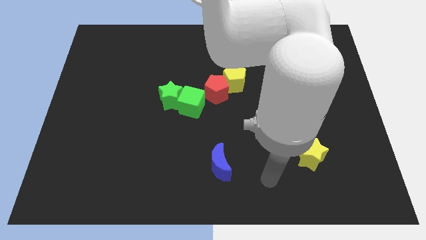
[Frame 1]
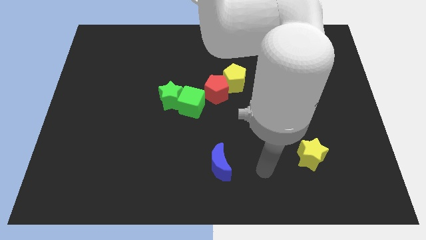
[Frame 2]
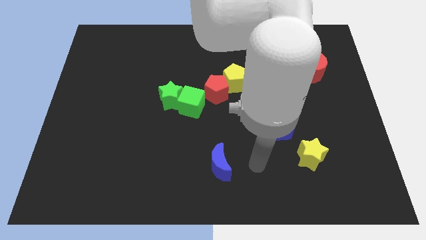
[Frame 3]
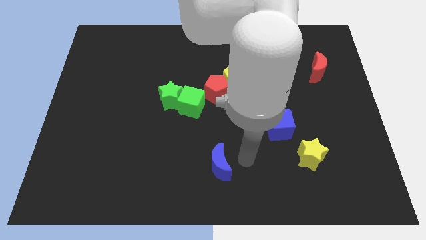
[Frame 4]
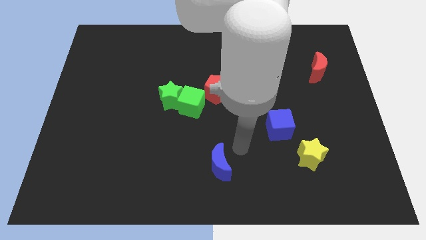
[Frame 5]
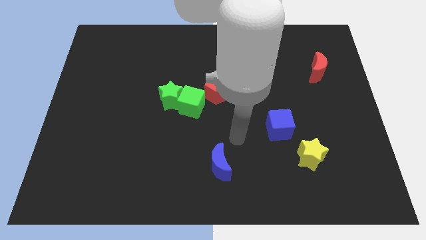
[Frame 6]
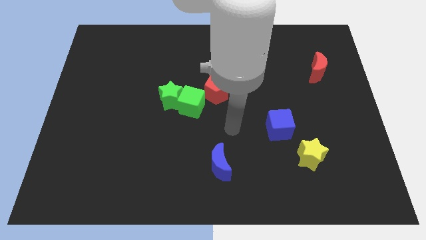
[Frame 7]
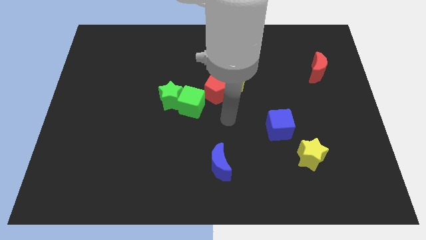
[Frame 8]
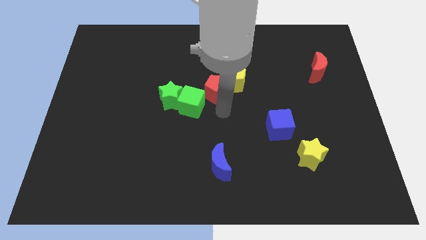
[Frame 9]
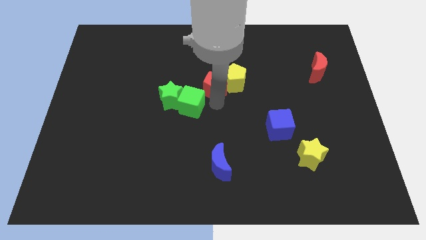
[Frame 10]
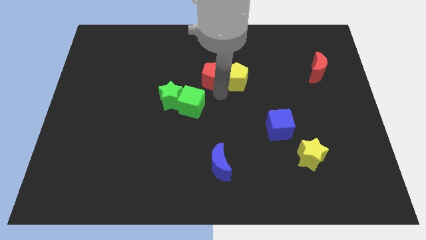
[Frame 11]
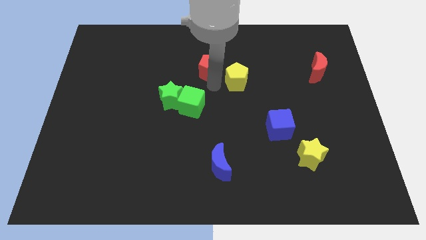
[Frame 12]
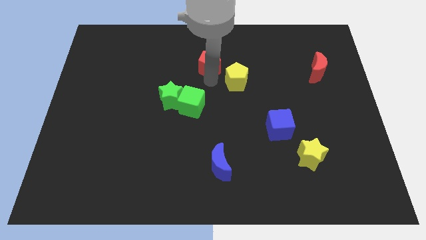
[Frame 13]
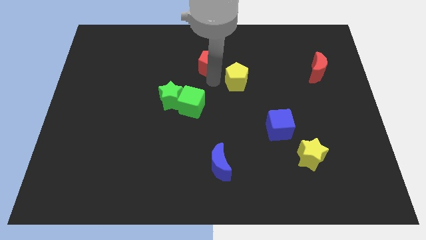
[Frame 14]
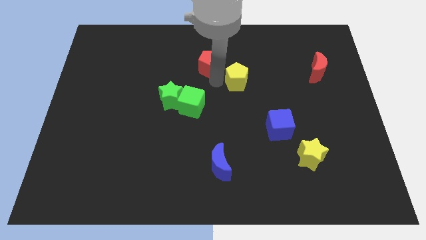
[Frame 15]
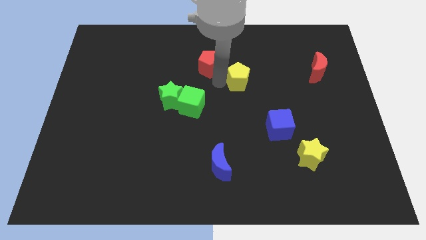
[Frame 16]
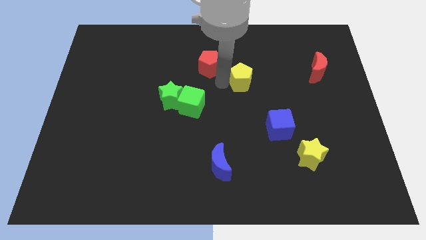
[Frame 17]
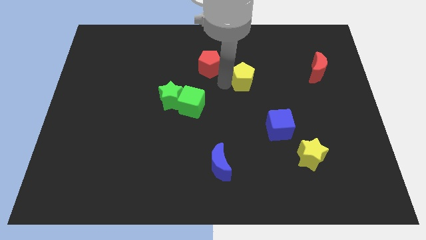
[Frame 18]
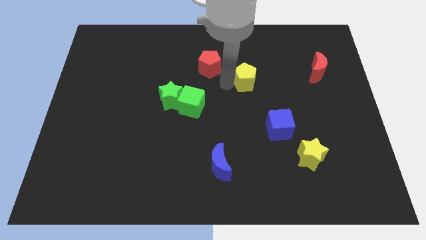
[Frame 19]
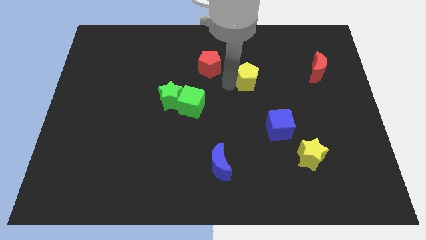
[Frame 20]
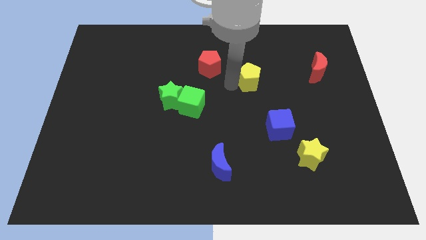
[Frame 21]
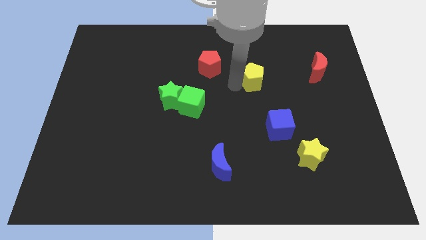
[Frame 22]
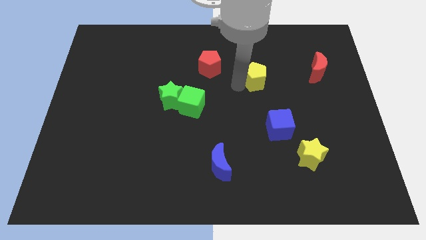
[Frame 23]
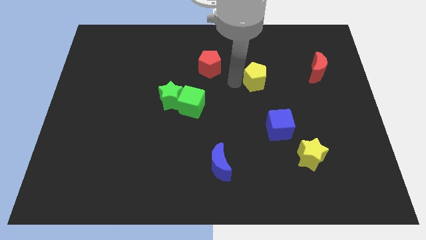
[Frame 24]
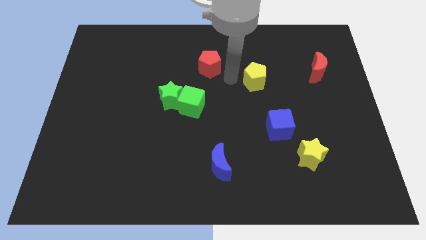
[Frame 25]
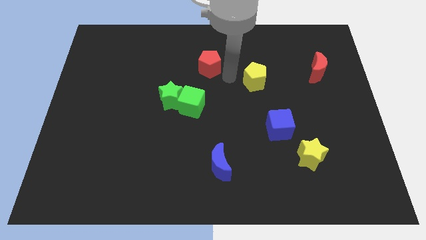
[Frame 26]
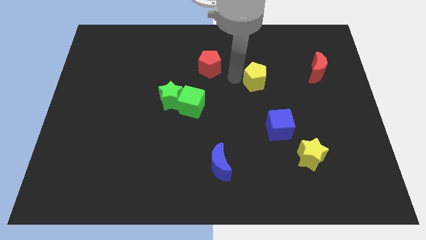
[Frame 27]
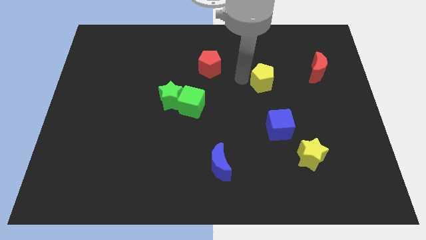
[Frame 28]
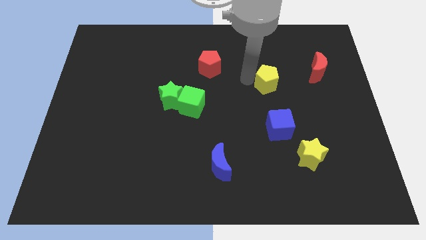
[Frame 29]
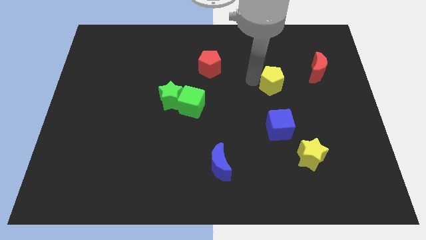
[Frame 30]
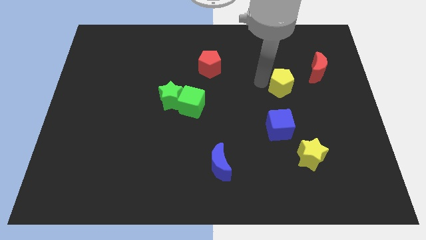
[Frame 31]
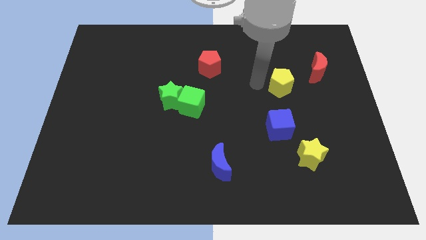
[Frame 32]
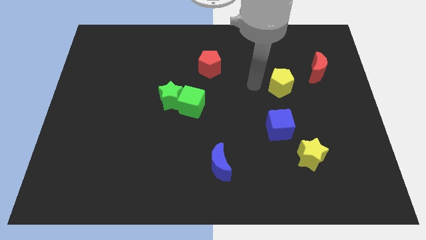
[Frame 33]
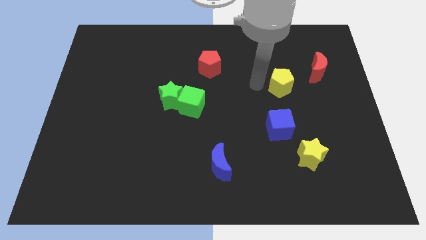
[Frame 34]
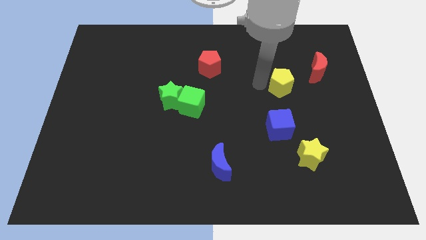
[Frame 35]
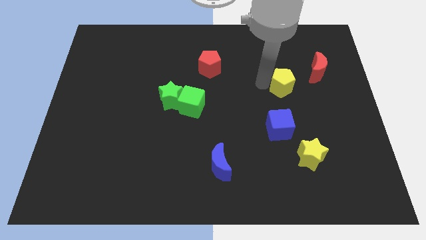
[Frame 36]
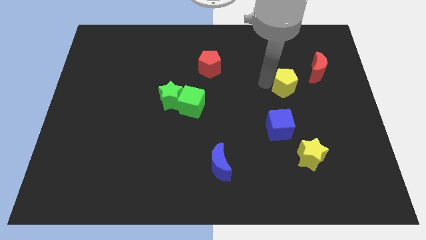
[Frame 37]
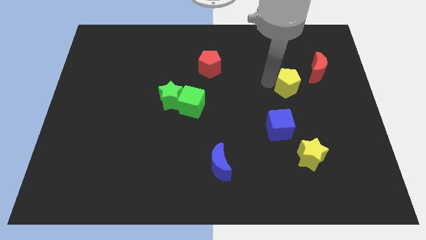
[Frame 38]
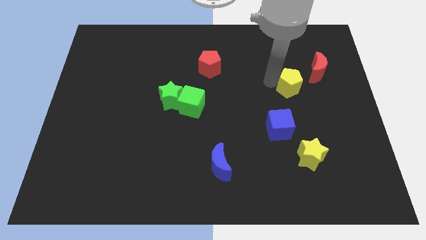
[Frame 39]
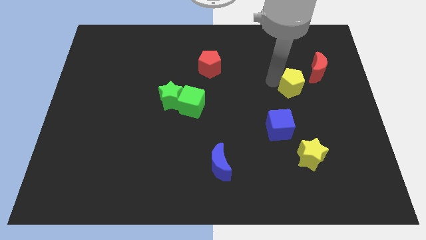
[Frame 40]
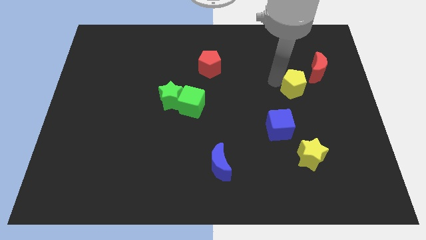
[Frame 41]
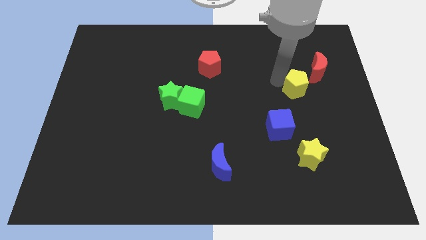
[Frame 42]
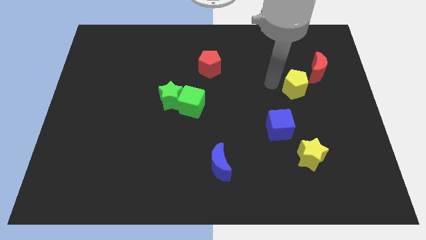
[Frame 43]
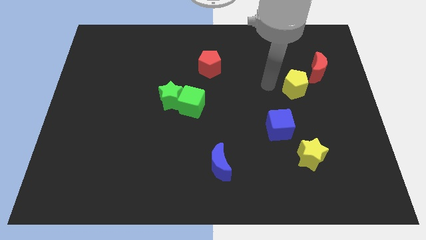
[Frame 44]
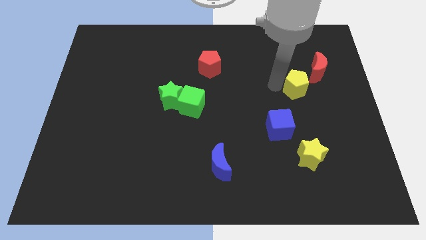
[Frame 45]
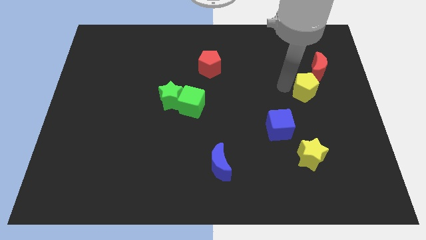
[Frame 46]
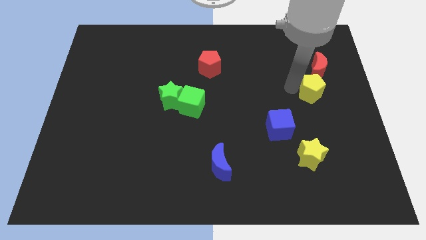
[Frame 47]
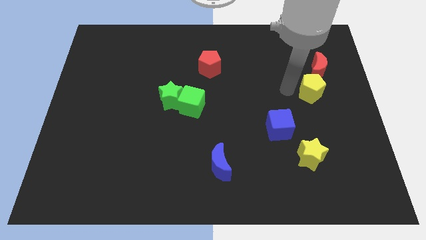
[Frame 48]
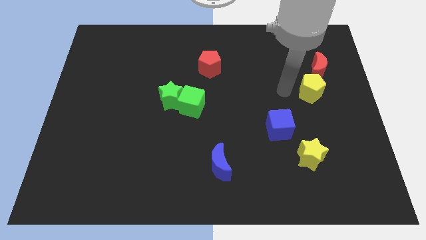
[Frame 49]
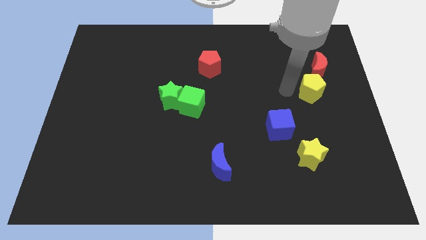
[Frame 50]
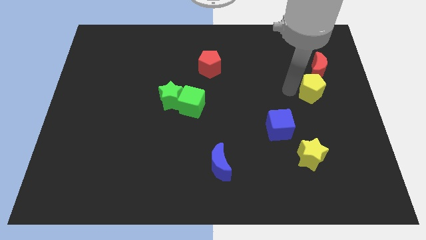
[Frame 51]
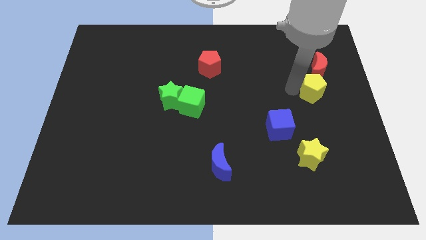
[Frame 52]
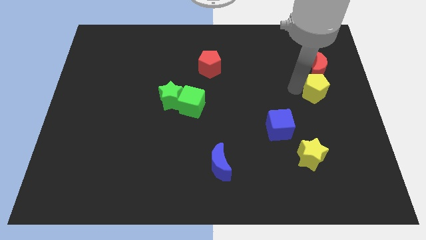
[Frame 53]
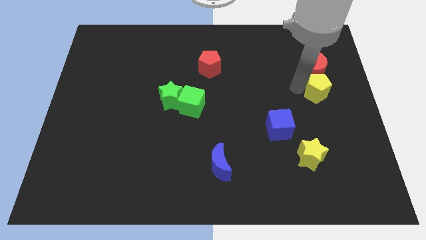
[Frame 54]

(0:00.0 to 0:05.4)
slide the yellow pentagon to the center right
